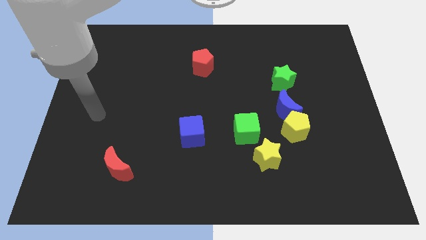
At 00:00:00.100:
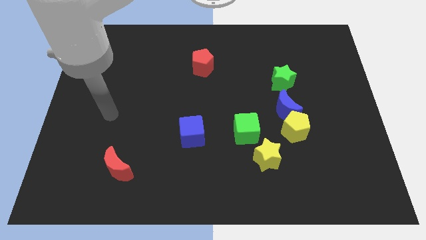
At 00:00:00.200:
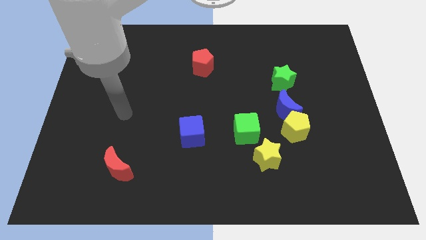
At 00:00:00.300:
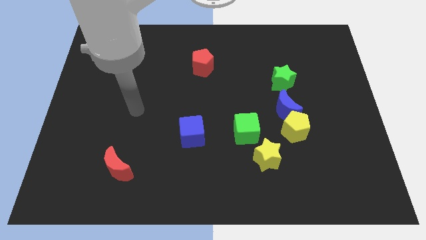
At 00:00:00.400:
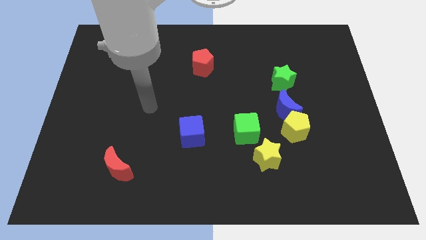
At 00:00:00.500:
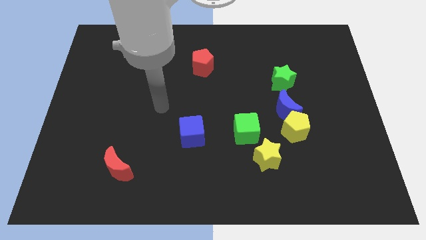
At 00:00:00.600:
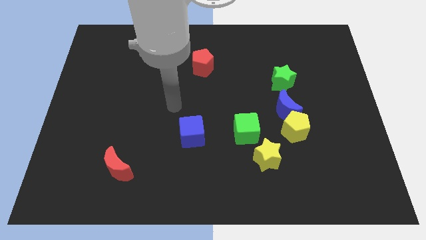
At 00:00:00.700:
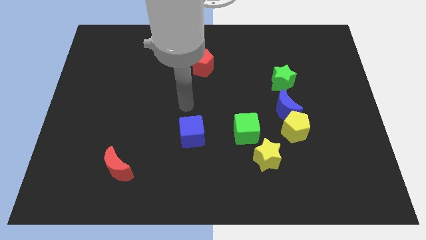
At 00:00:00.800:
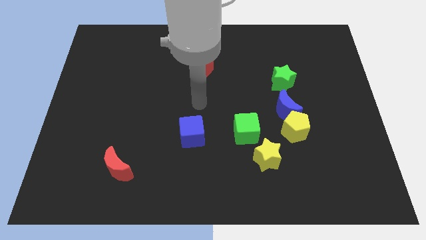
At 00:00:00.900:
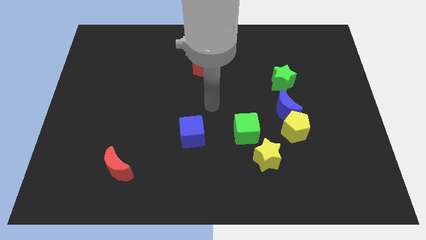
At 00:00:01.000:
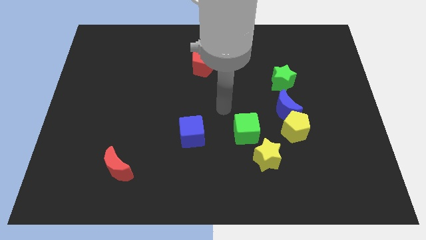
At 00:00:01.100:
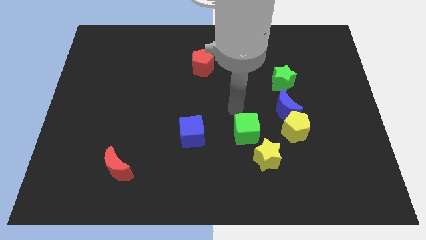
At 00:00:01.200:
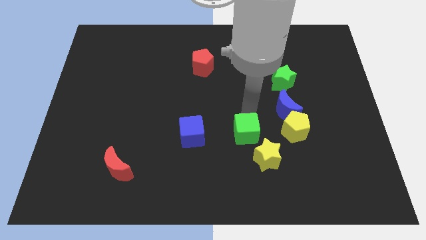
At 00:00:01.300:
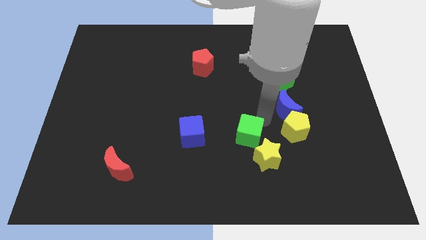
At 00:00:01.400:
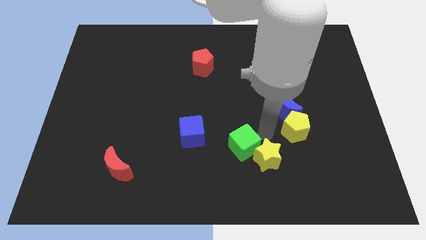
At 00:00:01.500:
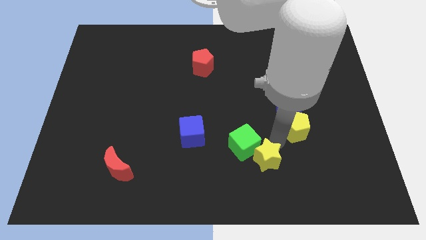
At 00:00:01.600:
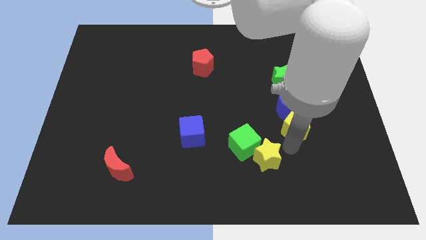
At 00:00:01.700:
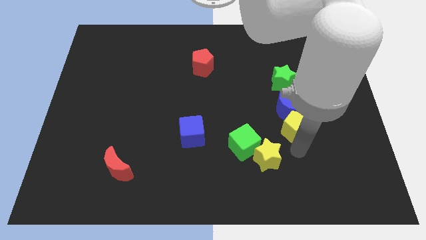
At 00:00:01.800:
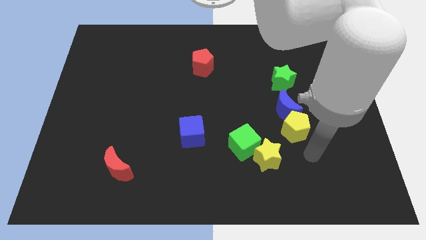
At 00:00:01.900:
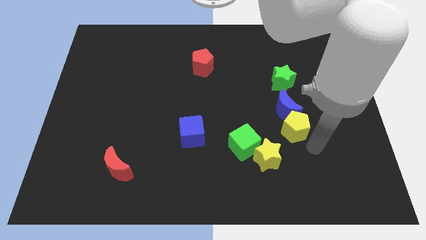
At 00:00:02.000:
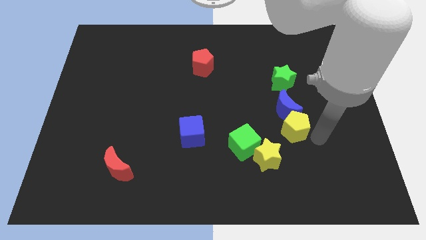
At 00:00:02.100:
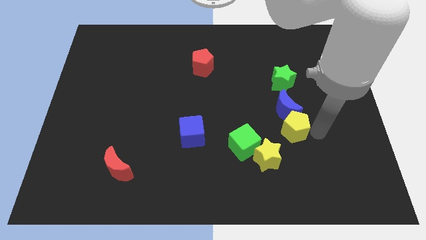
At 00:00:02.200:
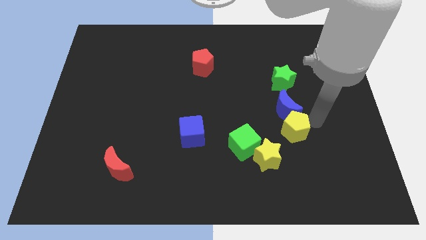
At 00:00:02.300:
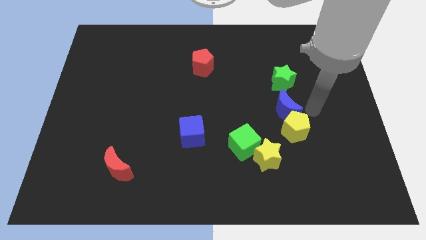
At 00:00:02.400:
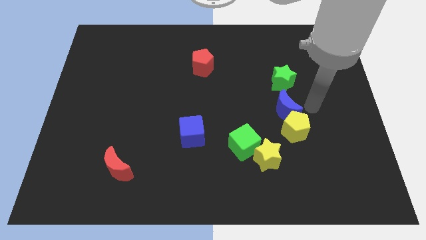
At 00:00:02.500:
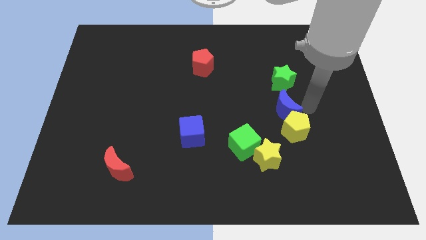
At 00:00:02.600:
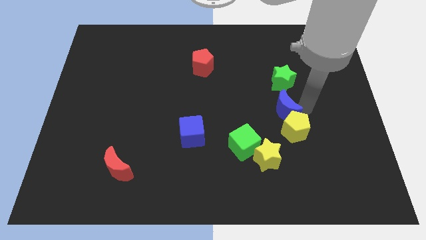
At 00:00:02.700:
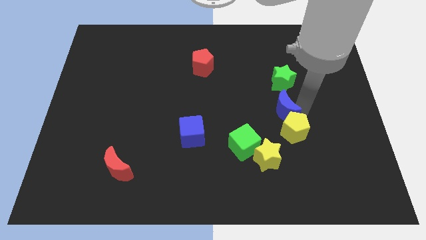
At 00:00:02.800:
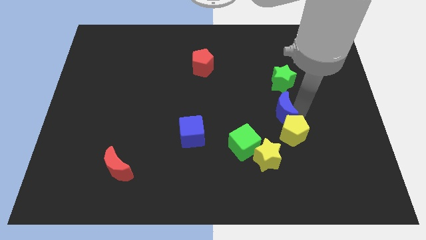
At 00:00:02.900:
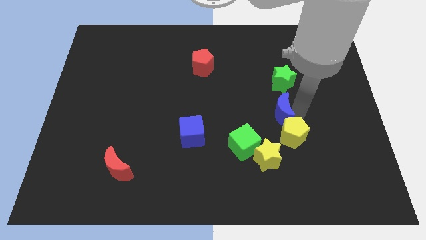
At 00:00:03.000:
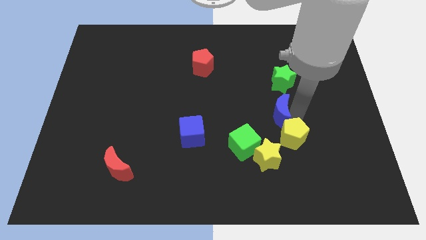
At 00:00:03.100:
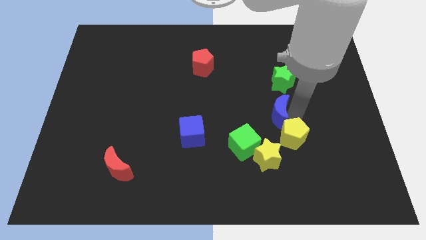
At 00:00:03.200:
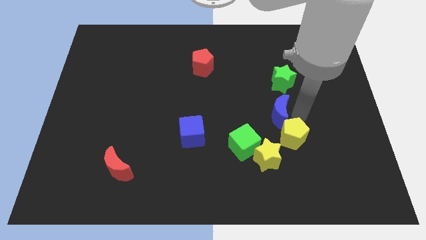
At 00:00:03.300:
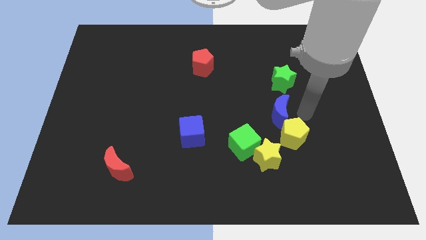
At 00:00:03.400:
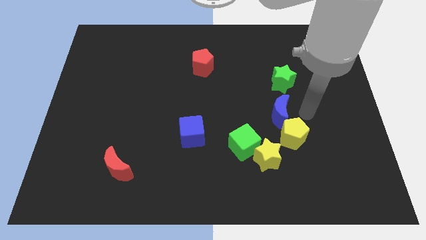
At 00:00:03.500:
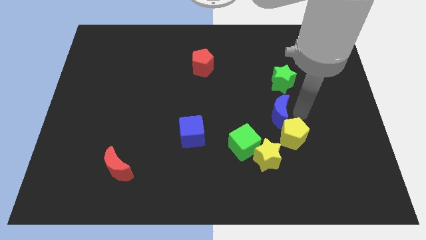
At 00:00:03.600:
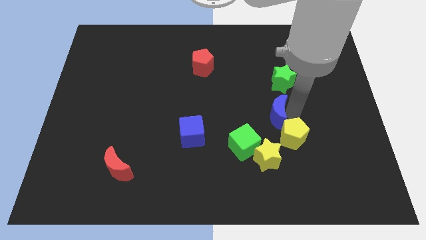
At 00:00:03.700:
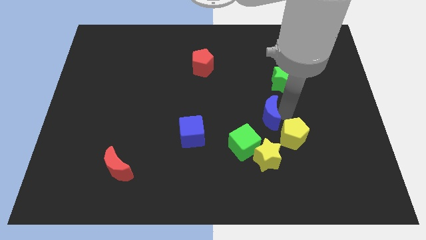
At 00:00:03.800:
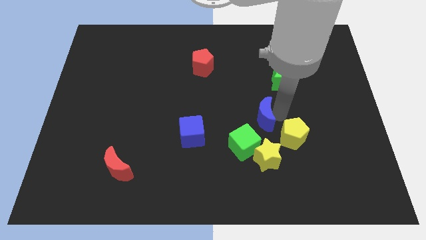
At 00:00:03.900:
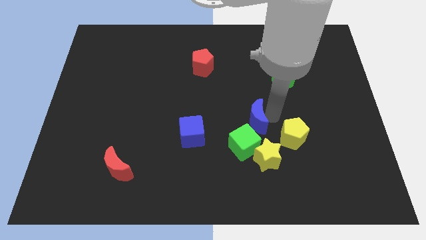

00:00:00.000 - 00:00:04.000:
slide the blue moon left a little

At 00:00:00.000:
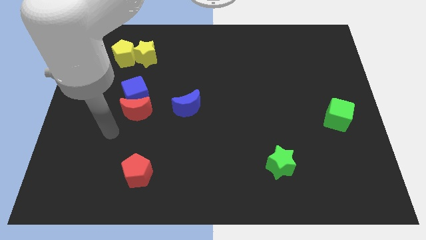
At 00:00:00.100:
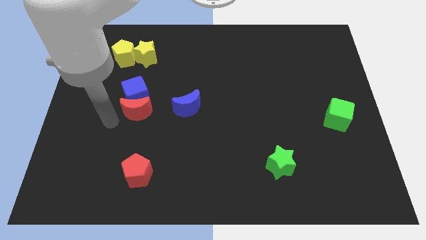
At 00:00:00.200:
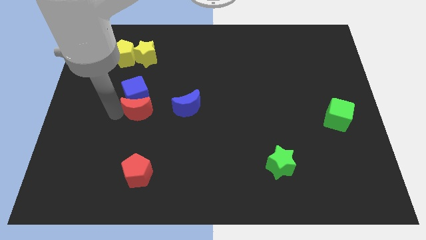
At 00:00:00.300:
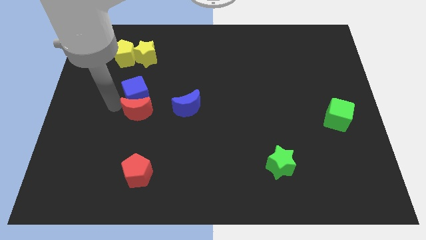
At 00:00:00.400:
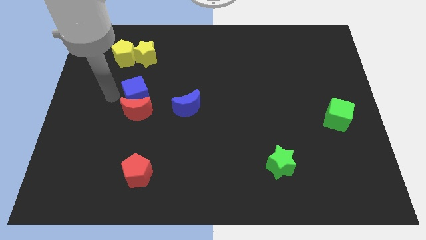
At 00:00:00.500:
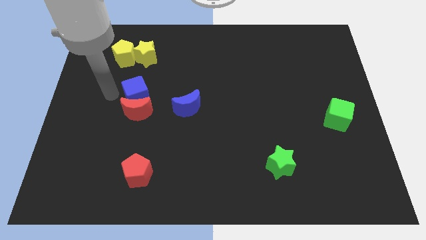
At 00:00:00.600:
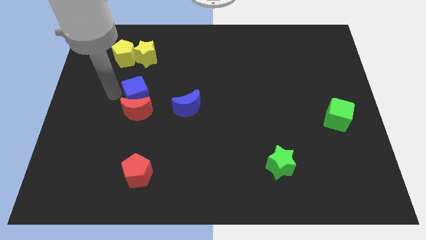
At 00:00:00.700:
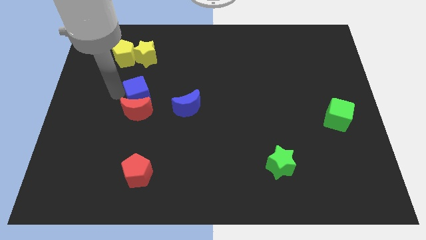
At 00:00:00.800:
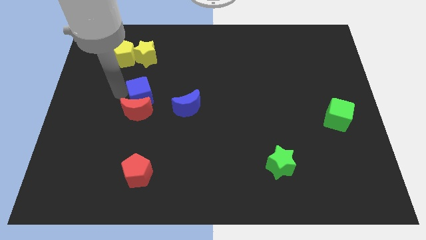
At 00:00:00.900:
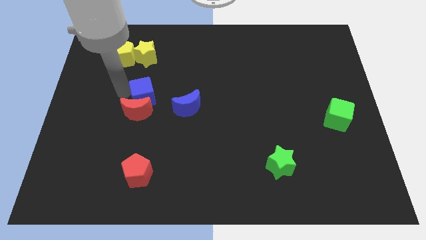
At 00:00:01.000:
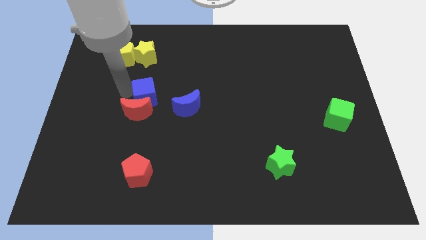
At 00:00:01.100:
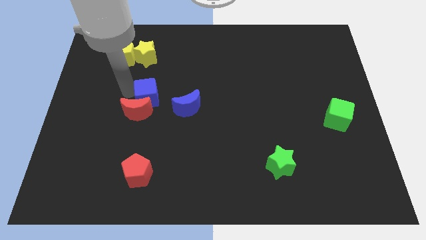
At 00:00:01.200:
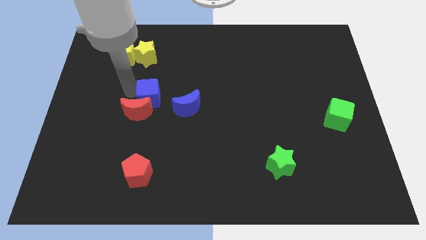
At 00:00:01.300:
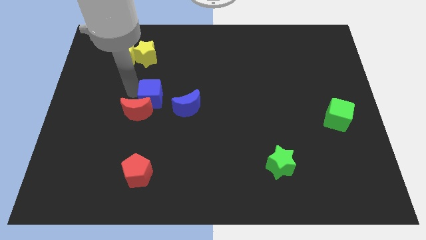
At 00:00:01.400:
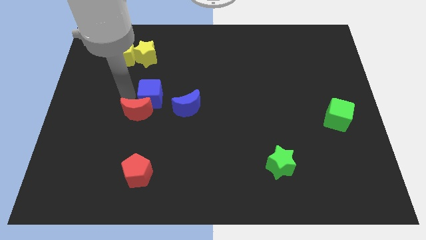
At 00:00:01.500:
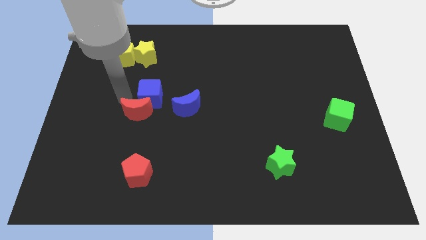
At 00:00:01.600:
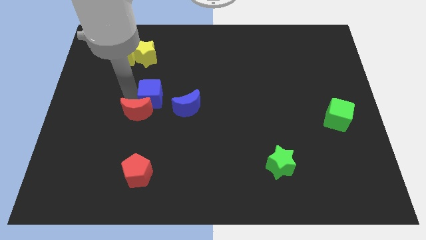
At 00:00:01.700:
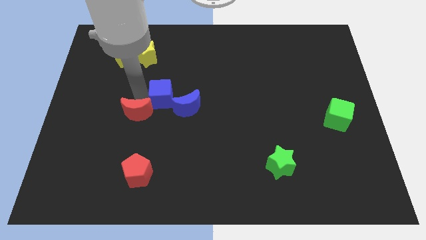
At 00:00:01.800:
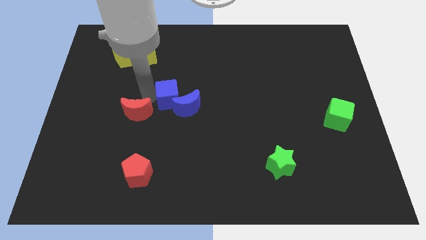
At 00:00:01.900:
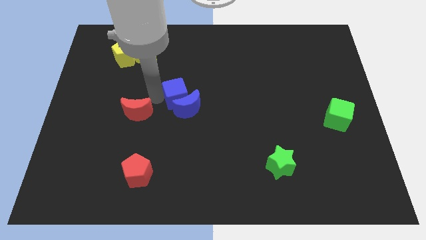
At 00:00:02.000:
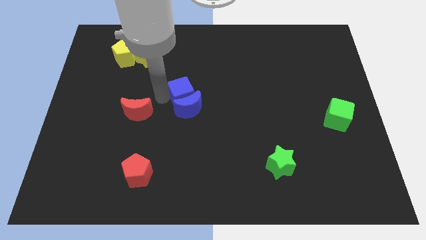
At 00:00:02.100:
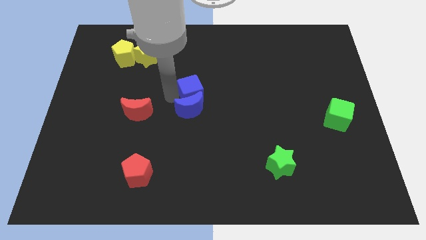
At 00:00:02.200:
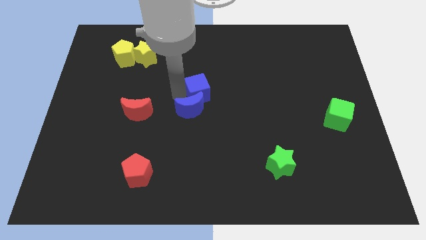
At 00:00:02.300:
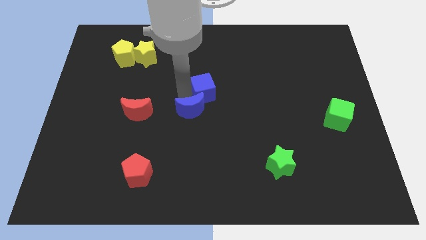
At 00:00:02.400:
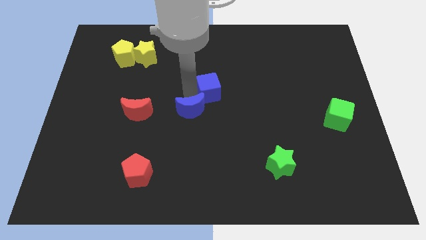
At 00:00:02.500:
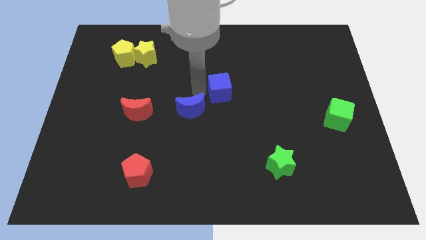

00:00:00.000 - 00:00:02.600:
move the blue cube right

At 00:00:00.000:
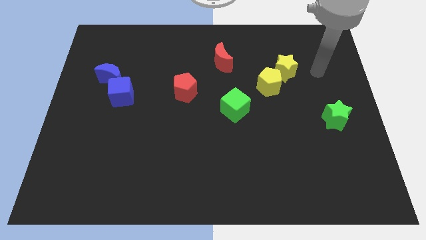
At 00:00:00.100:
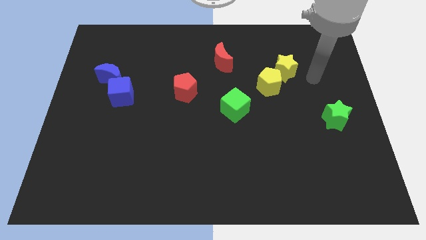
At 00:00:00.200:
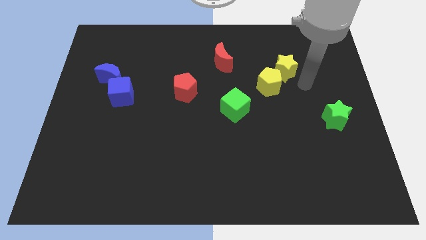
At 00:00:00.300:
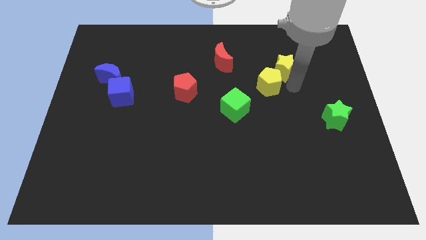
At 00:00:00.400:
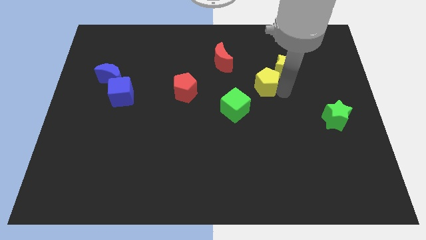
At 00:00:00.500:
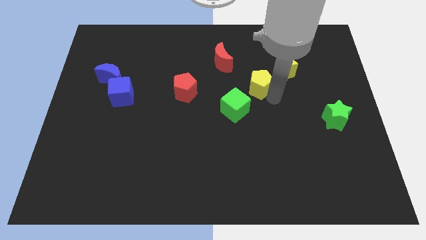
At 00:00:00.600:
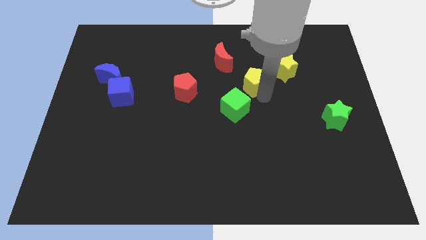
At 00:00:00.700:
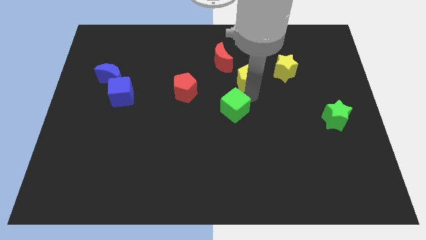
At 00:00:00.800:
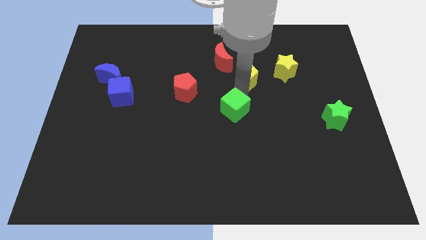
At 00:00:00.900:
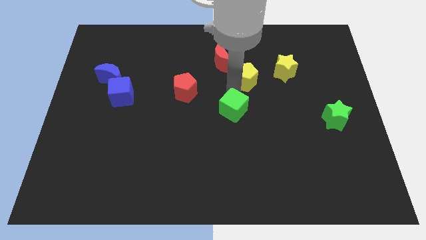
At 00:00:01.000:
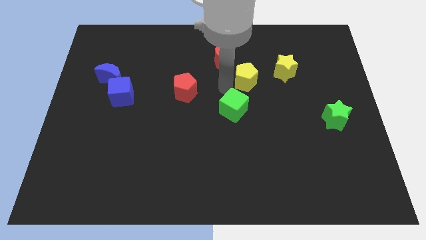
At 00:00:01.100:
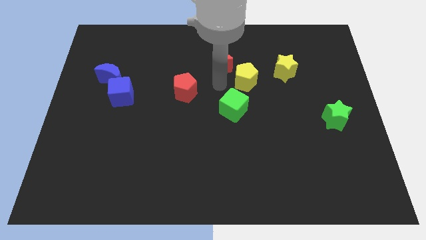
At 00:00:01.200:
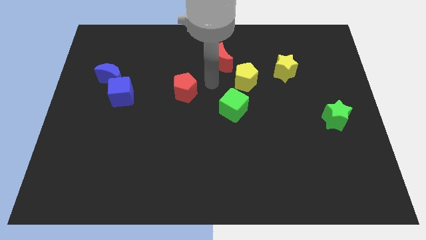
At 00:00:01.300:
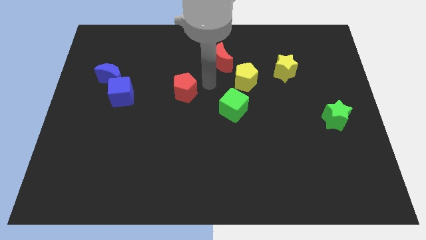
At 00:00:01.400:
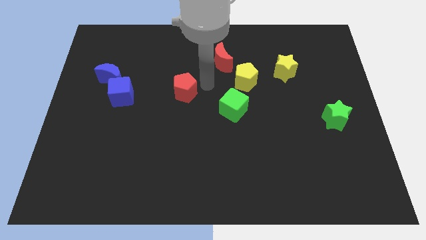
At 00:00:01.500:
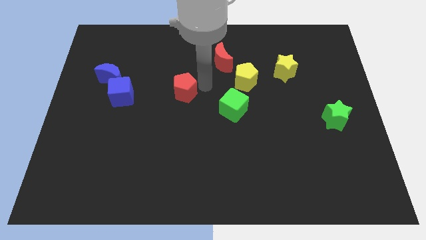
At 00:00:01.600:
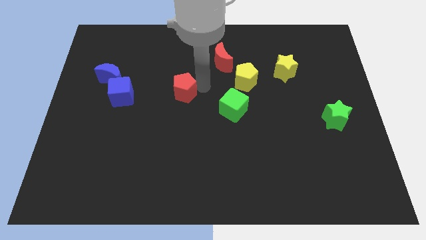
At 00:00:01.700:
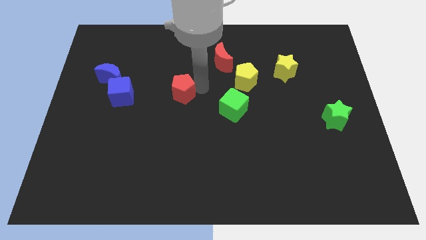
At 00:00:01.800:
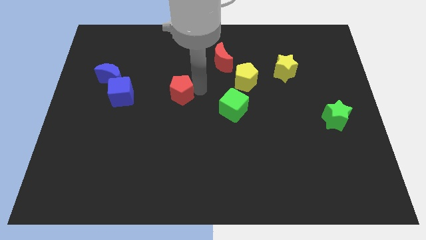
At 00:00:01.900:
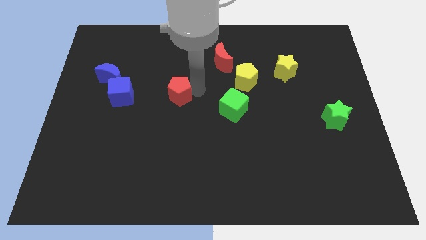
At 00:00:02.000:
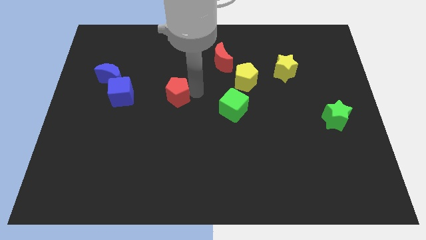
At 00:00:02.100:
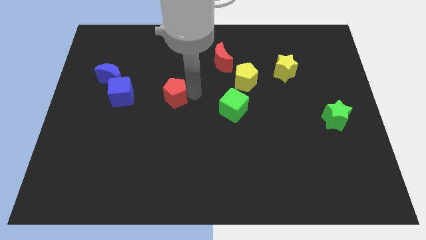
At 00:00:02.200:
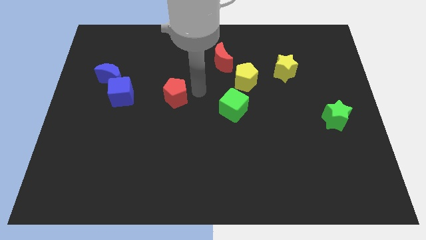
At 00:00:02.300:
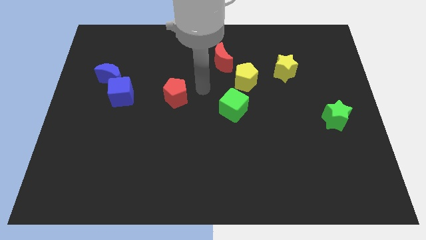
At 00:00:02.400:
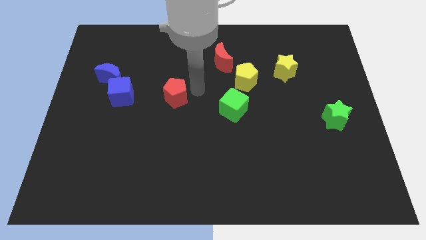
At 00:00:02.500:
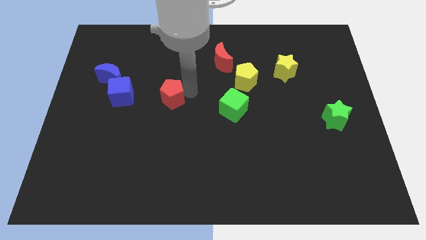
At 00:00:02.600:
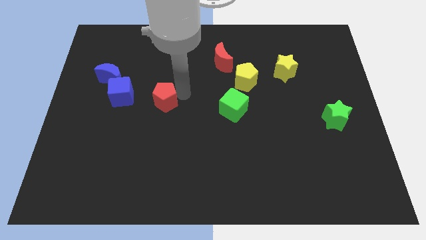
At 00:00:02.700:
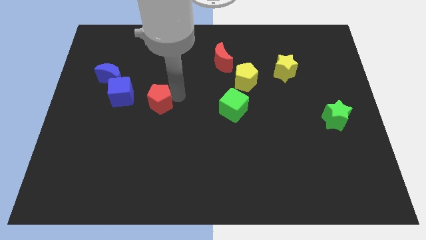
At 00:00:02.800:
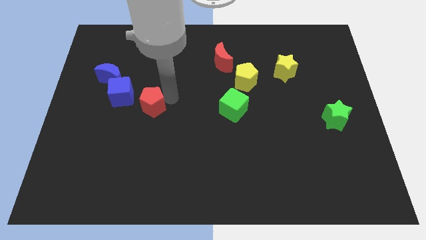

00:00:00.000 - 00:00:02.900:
slide the red pentagon a little left
